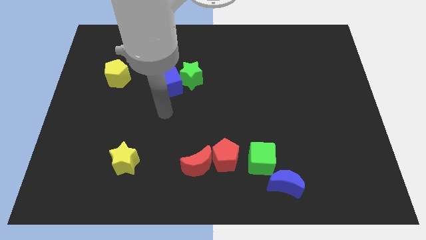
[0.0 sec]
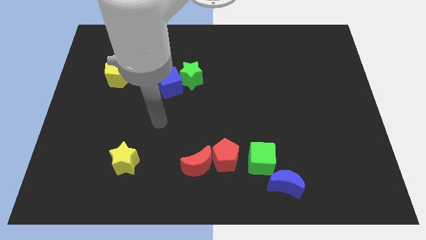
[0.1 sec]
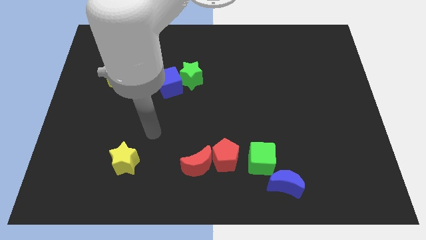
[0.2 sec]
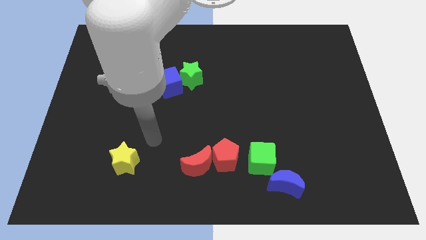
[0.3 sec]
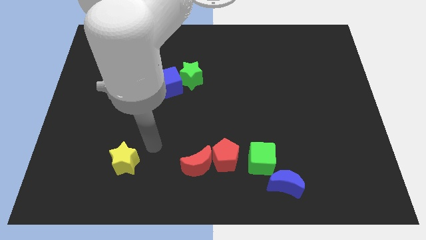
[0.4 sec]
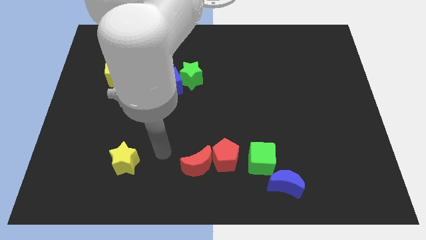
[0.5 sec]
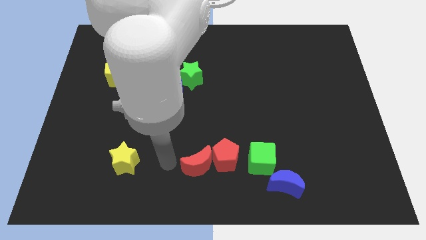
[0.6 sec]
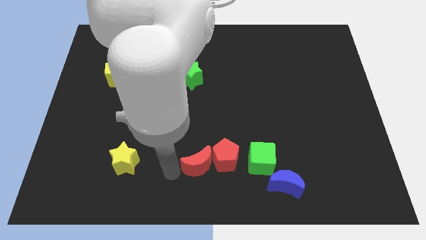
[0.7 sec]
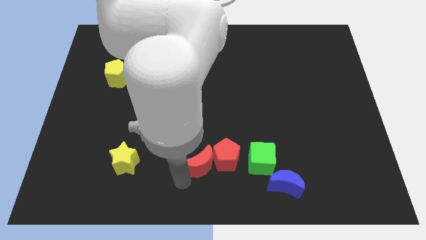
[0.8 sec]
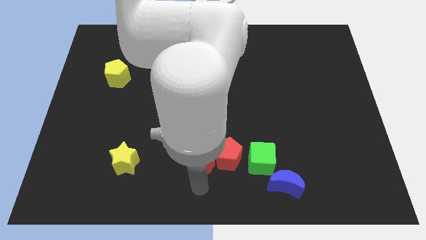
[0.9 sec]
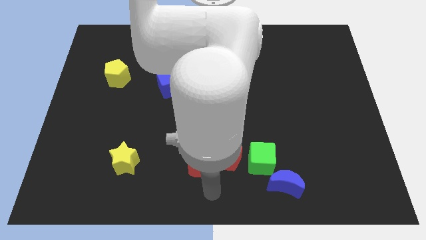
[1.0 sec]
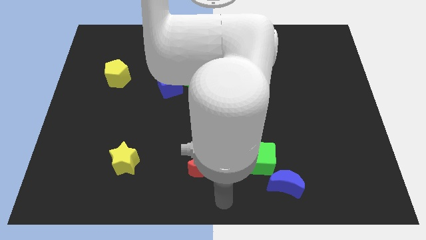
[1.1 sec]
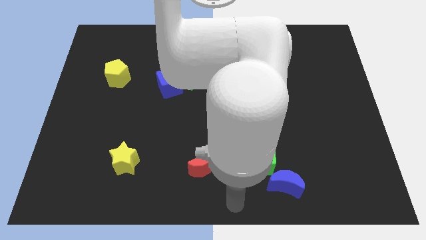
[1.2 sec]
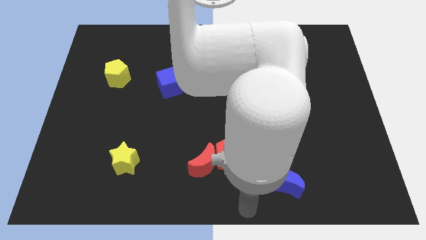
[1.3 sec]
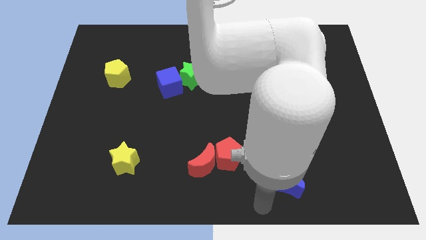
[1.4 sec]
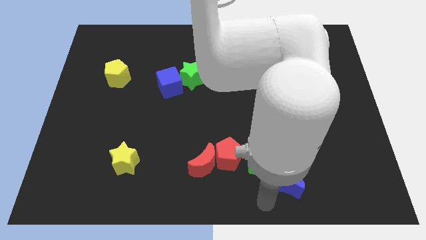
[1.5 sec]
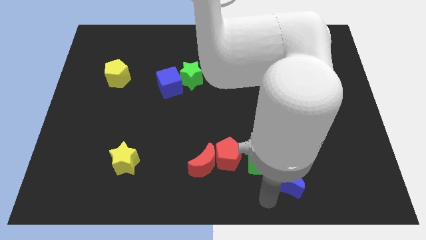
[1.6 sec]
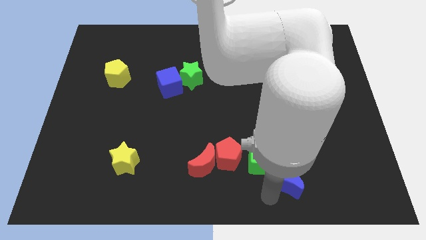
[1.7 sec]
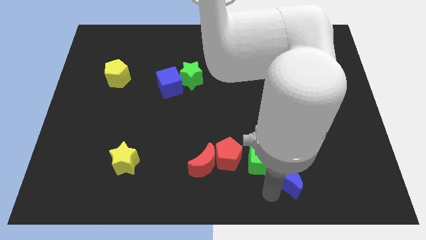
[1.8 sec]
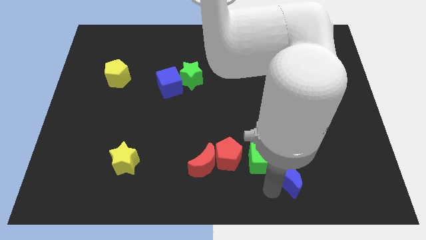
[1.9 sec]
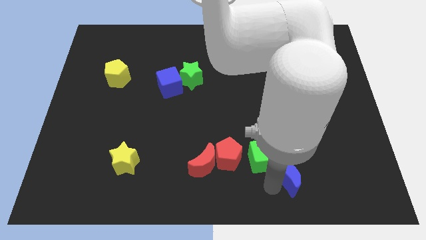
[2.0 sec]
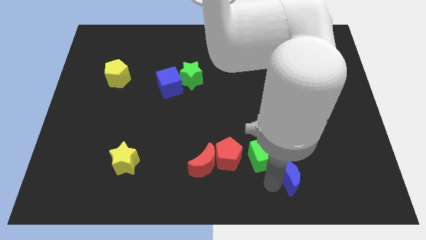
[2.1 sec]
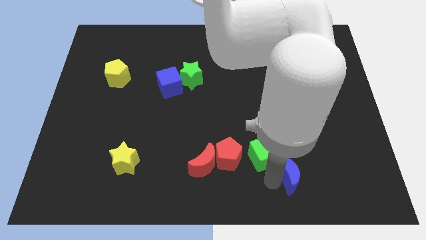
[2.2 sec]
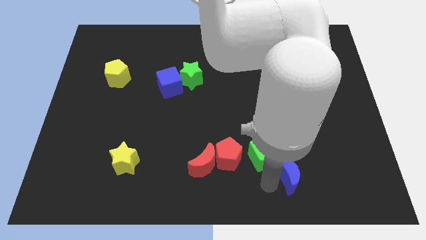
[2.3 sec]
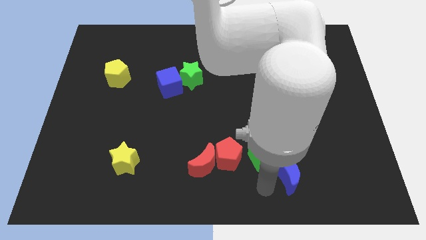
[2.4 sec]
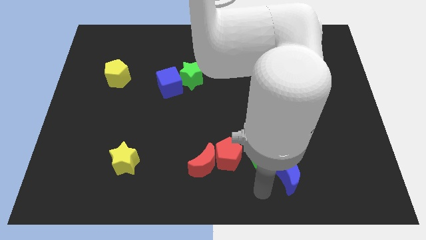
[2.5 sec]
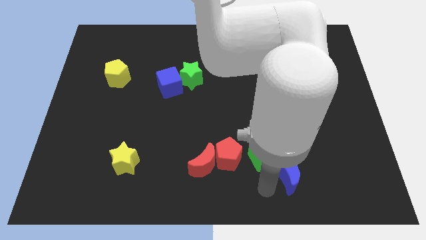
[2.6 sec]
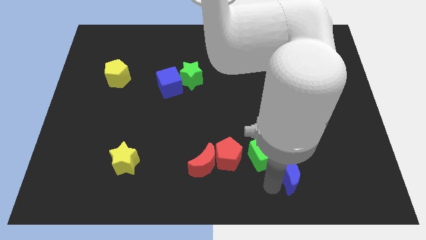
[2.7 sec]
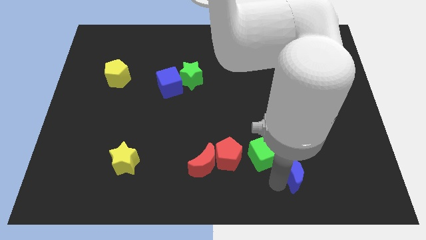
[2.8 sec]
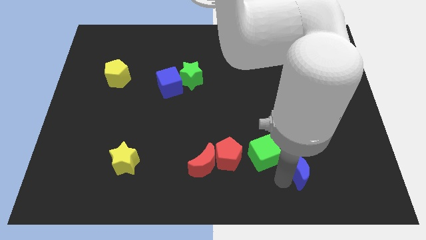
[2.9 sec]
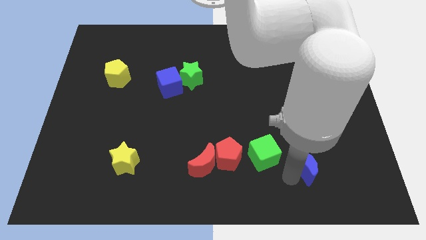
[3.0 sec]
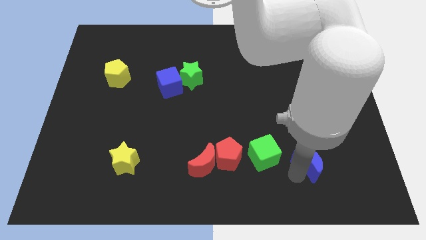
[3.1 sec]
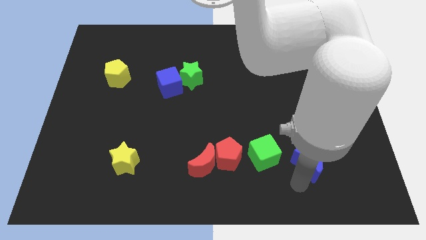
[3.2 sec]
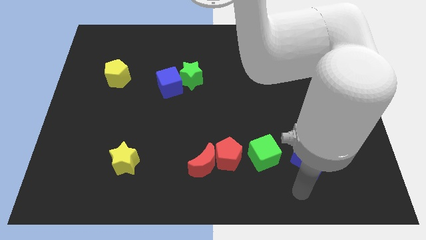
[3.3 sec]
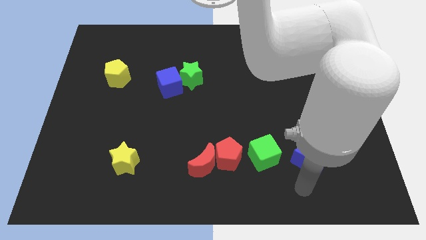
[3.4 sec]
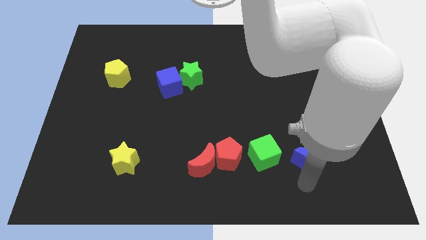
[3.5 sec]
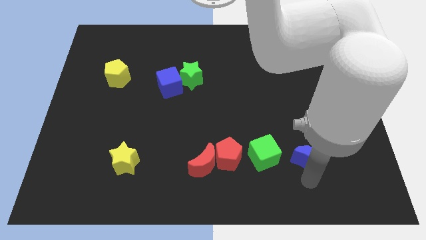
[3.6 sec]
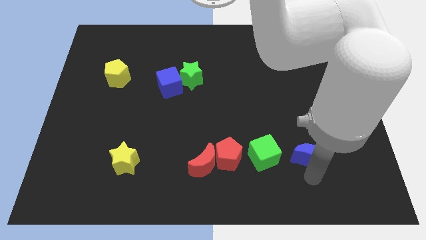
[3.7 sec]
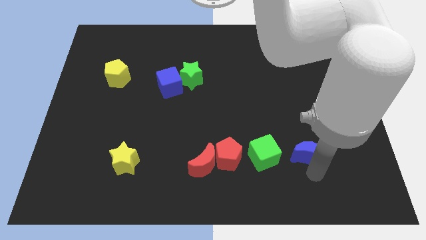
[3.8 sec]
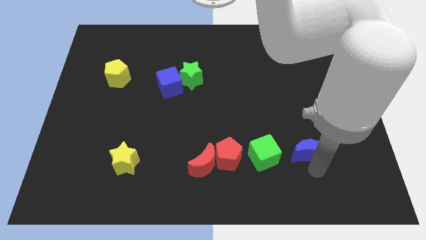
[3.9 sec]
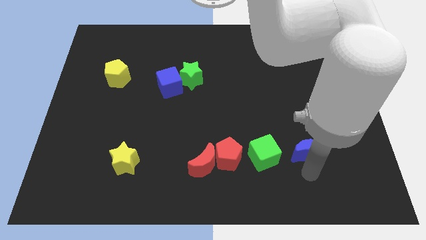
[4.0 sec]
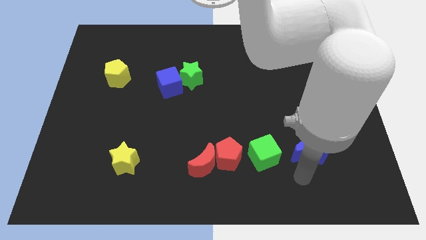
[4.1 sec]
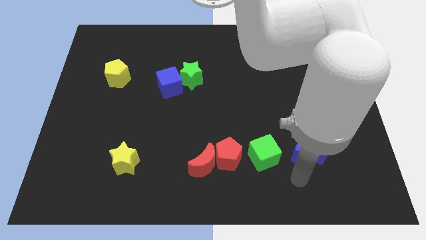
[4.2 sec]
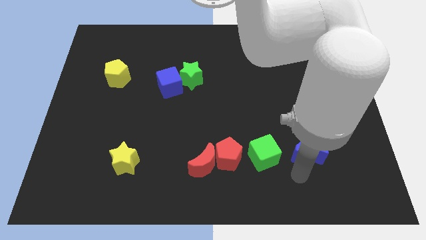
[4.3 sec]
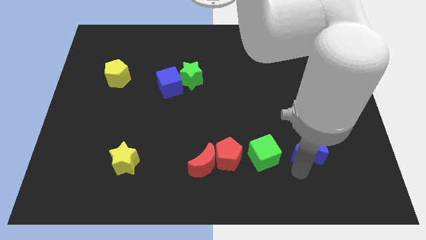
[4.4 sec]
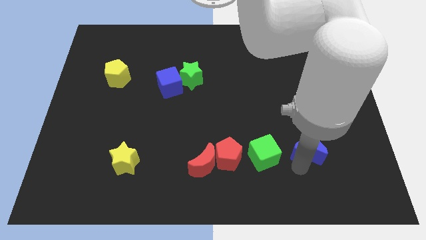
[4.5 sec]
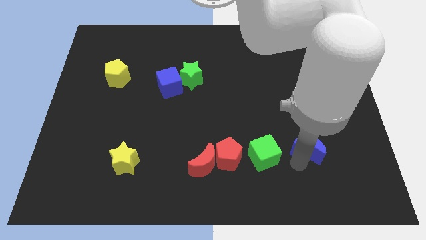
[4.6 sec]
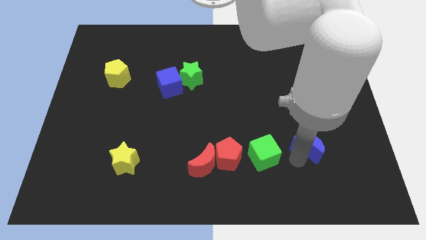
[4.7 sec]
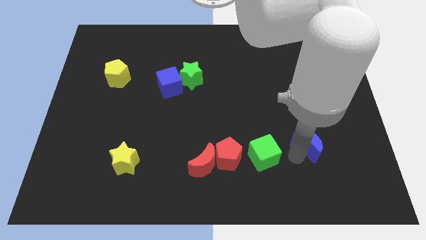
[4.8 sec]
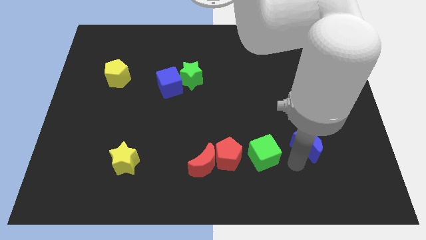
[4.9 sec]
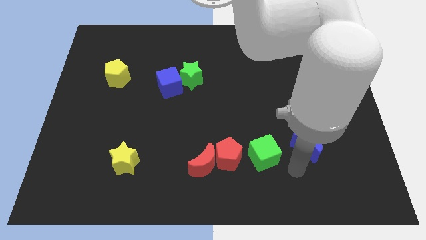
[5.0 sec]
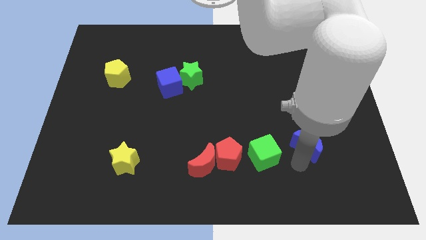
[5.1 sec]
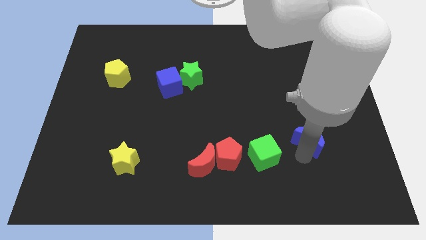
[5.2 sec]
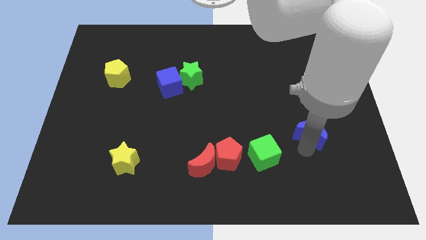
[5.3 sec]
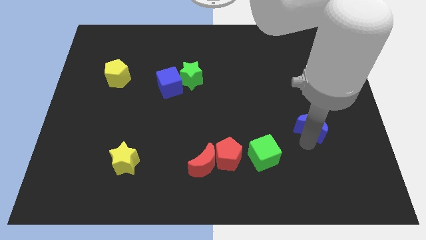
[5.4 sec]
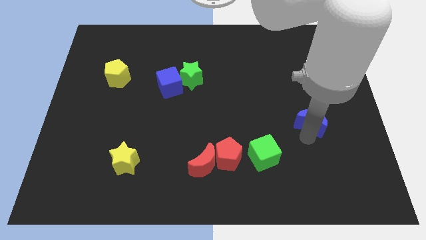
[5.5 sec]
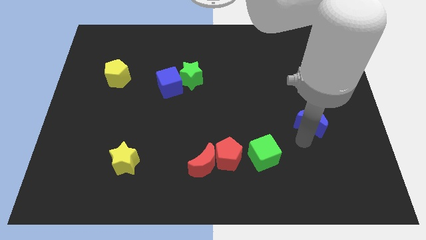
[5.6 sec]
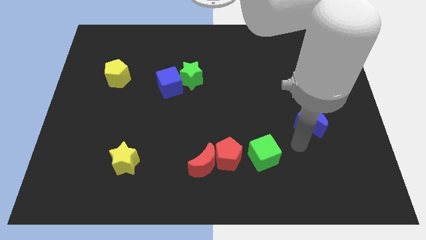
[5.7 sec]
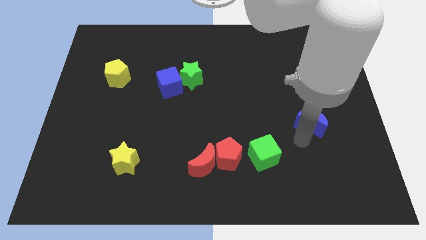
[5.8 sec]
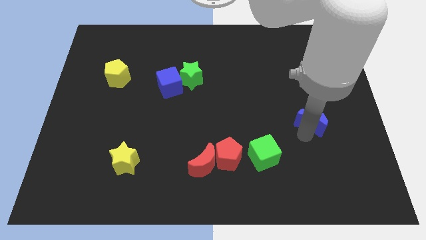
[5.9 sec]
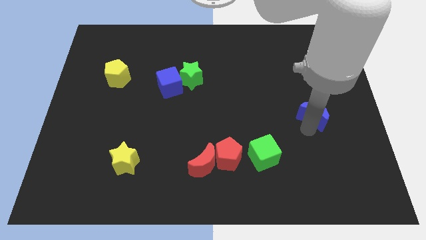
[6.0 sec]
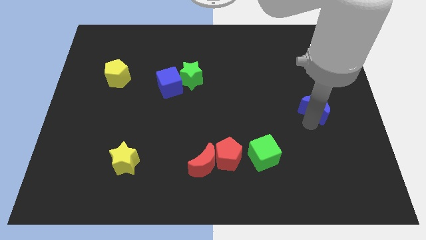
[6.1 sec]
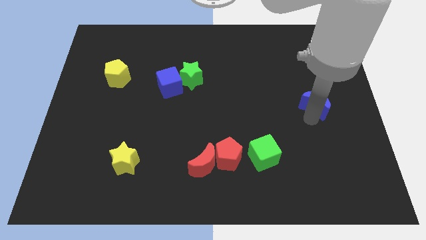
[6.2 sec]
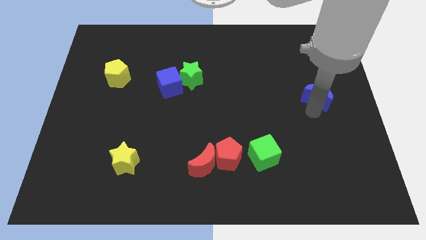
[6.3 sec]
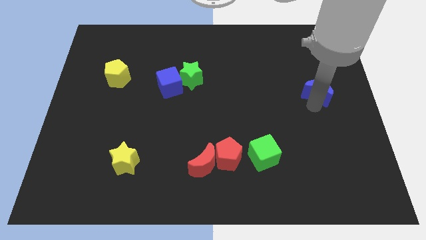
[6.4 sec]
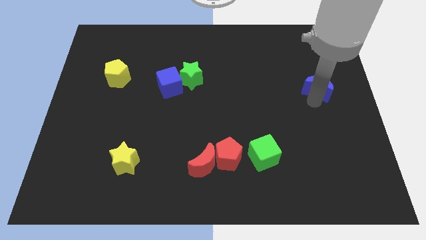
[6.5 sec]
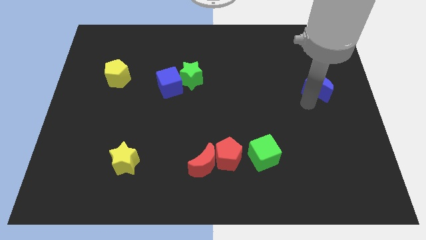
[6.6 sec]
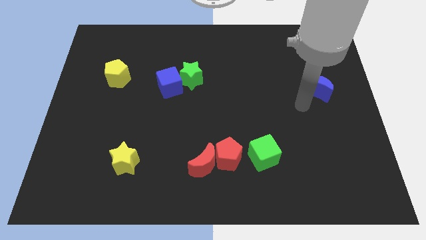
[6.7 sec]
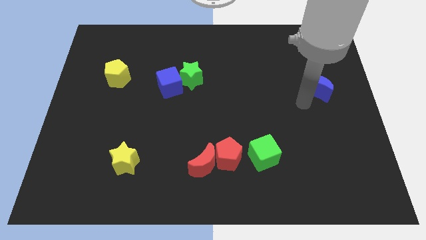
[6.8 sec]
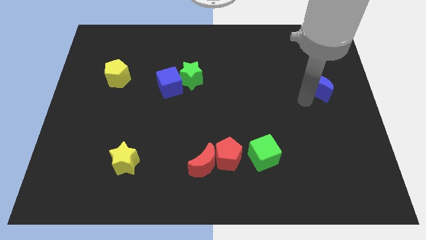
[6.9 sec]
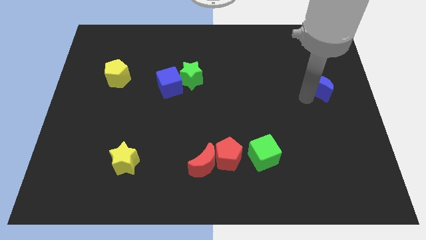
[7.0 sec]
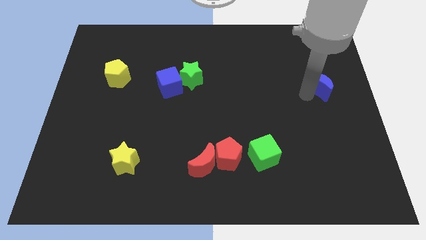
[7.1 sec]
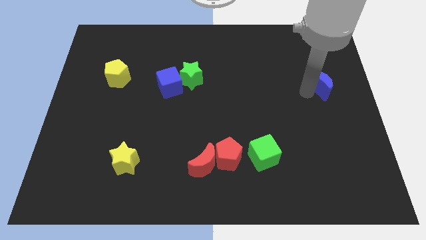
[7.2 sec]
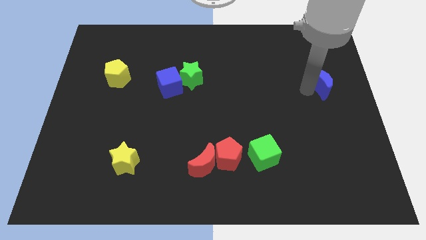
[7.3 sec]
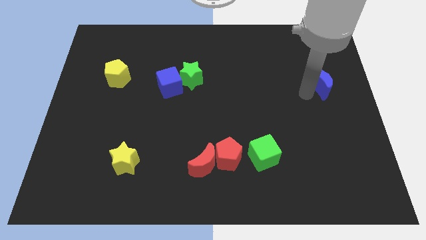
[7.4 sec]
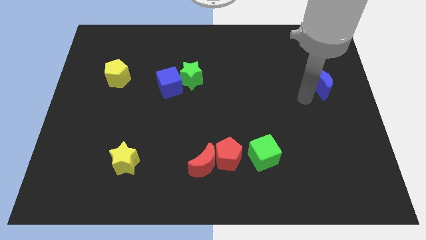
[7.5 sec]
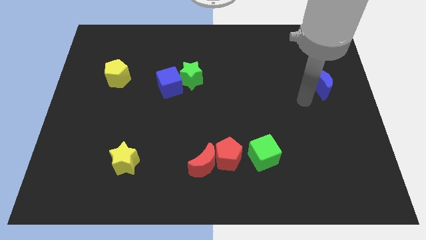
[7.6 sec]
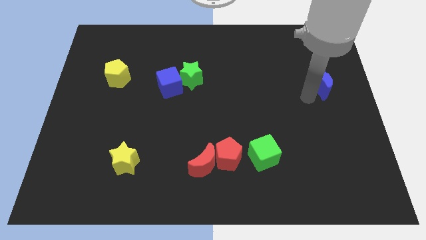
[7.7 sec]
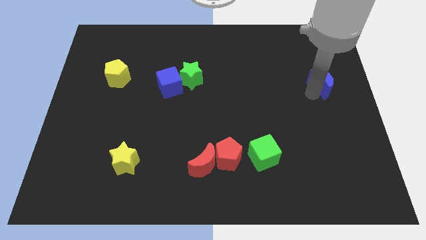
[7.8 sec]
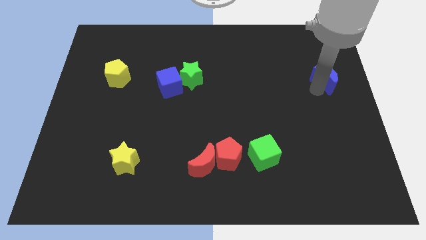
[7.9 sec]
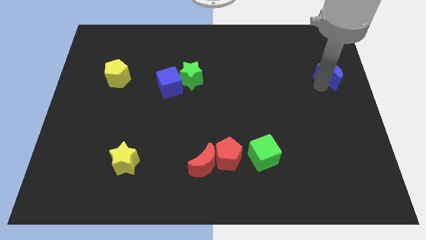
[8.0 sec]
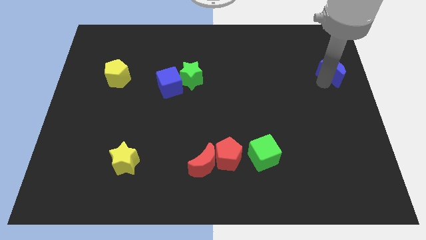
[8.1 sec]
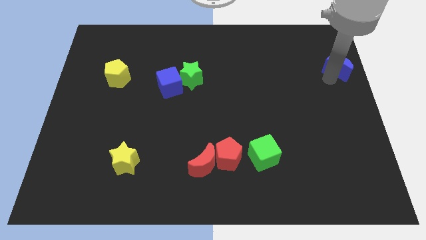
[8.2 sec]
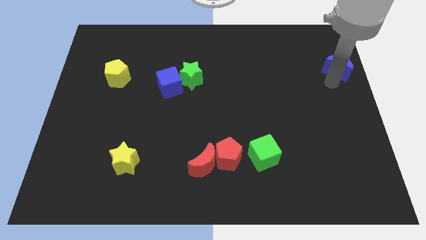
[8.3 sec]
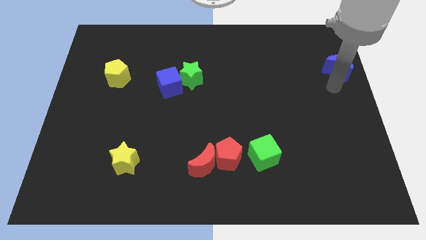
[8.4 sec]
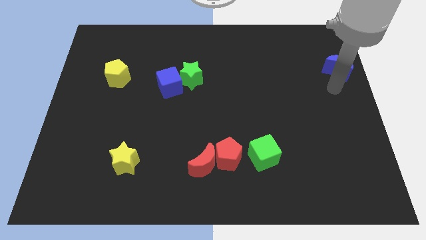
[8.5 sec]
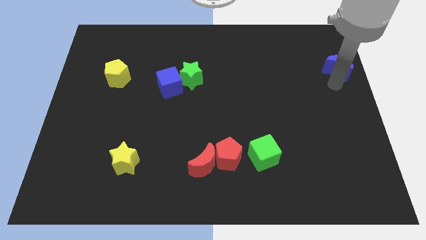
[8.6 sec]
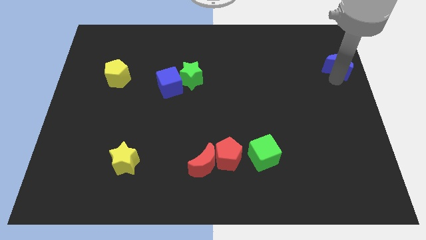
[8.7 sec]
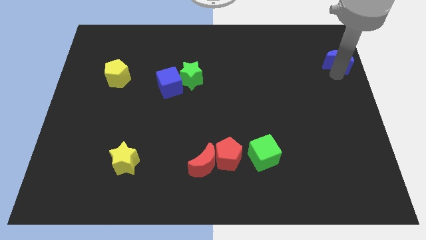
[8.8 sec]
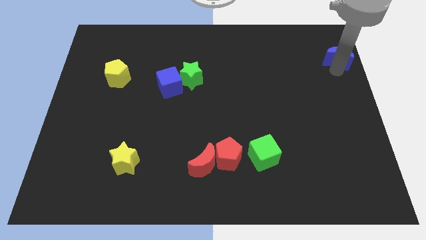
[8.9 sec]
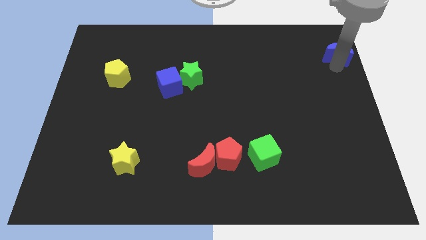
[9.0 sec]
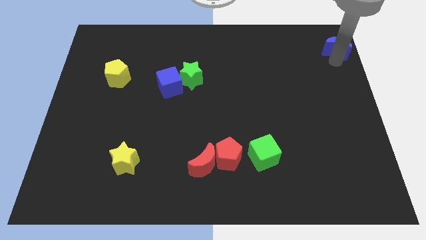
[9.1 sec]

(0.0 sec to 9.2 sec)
put the blue moon to the top right
